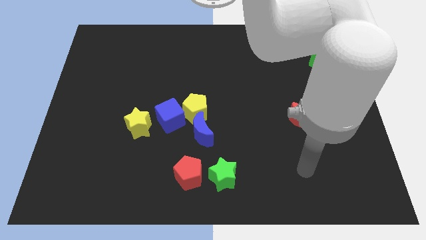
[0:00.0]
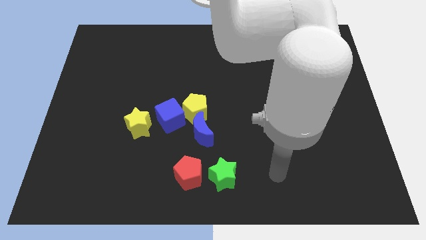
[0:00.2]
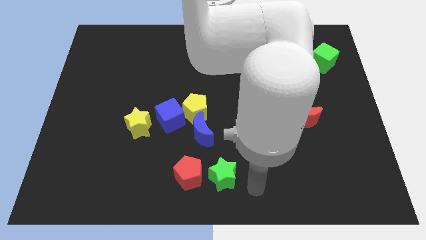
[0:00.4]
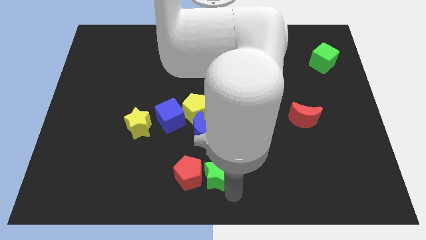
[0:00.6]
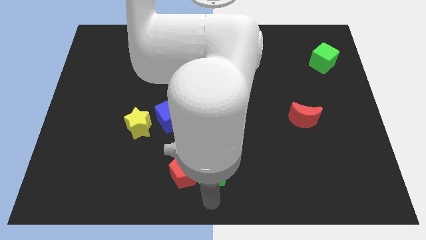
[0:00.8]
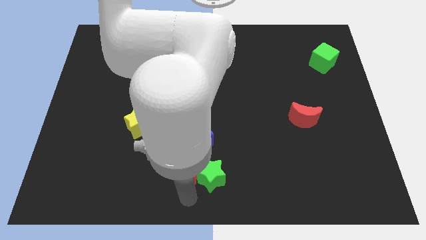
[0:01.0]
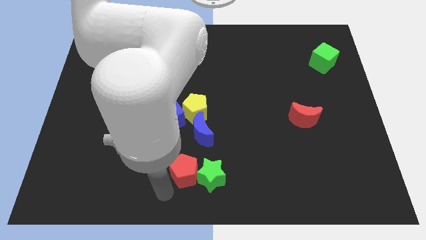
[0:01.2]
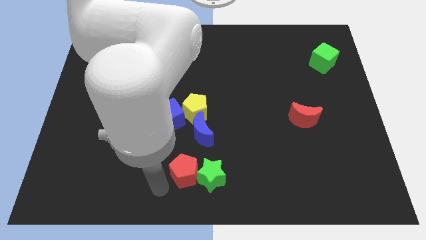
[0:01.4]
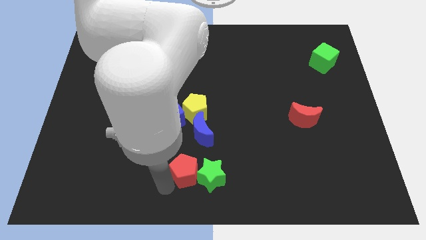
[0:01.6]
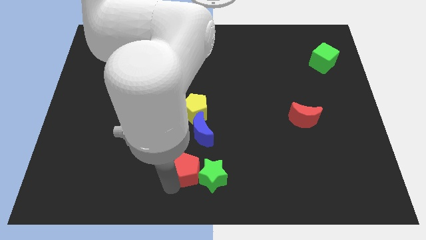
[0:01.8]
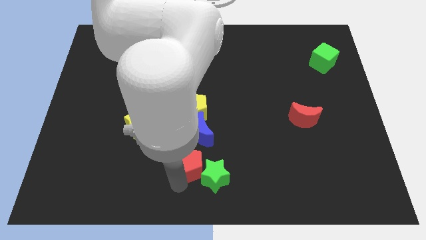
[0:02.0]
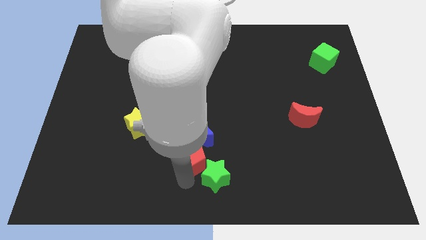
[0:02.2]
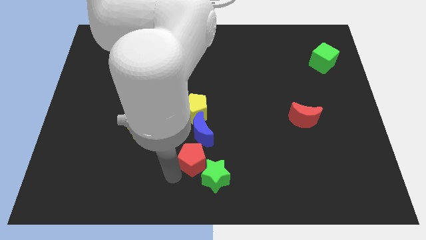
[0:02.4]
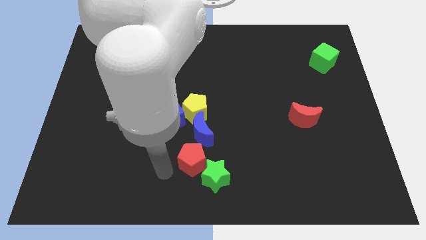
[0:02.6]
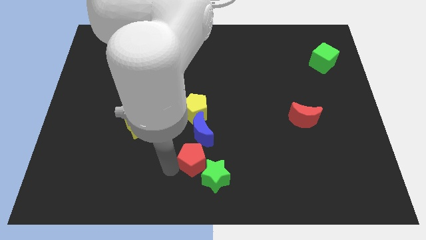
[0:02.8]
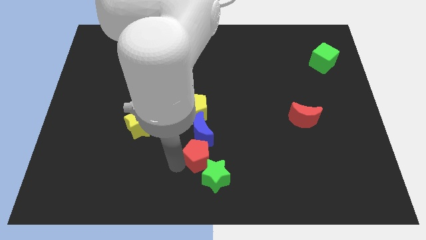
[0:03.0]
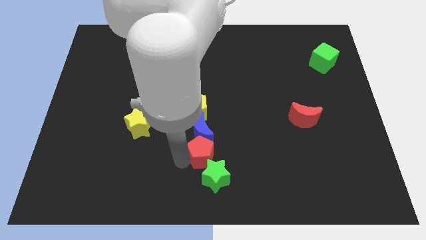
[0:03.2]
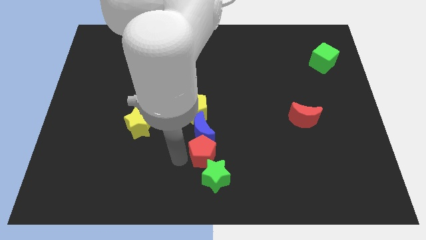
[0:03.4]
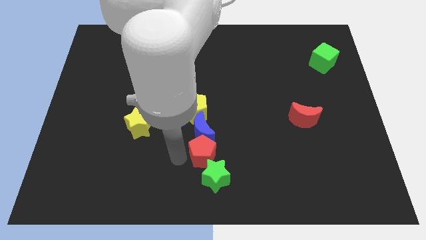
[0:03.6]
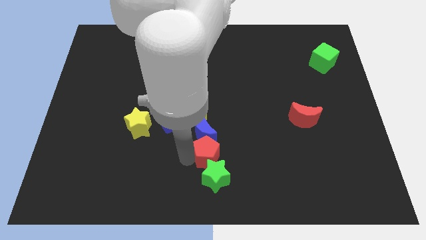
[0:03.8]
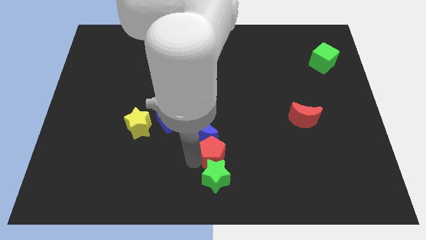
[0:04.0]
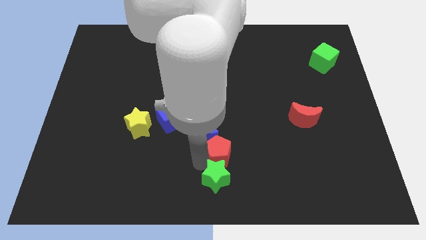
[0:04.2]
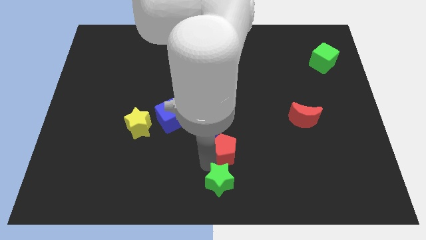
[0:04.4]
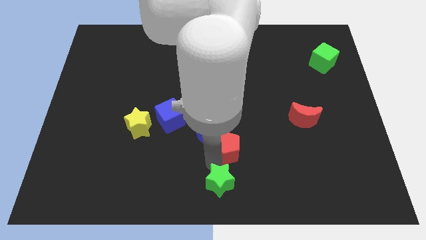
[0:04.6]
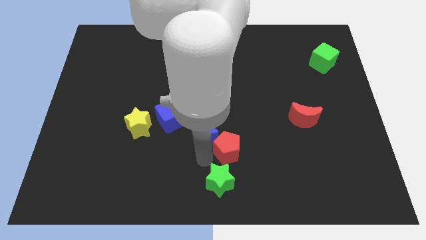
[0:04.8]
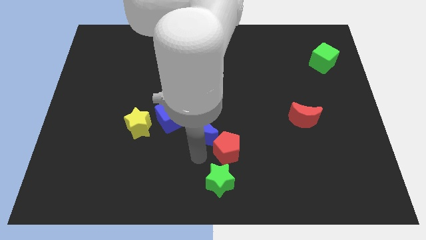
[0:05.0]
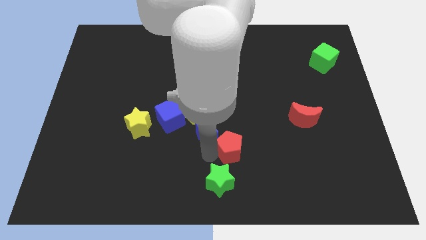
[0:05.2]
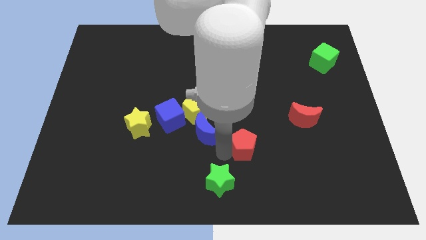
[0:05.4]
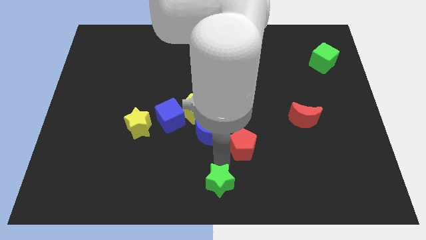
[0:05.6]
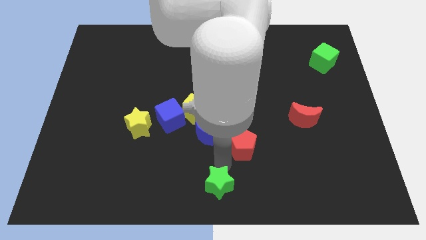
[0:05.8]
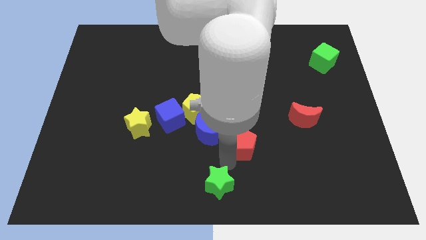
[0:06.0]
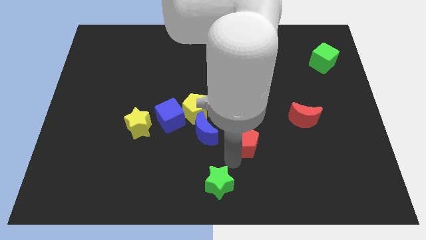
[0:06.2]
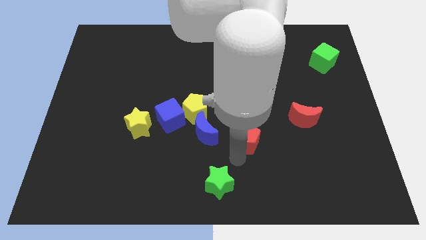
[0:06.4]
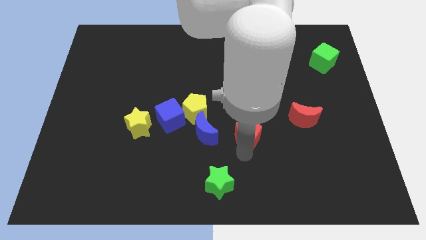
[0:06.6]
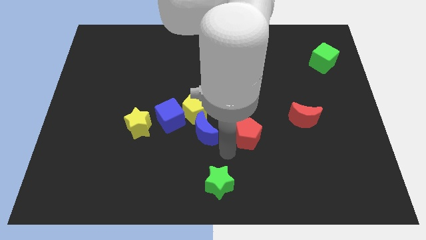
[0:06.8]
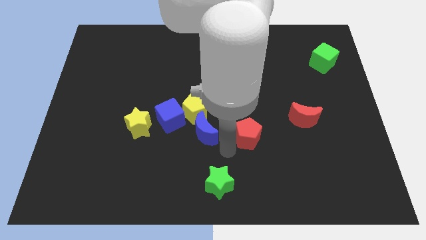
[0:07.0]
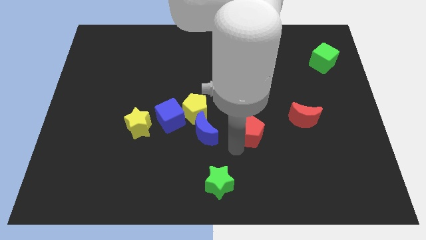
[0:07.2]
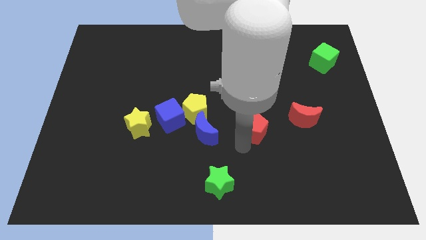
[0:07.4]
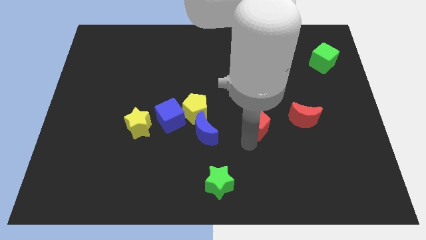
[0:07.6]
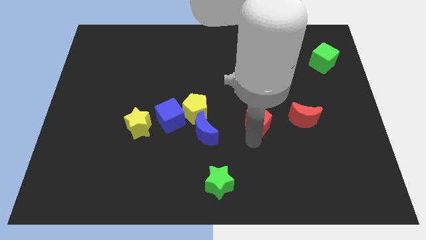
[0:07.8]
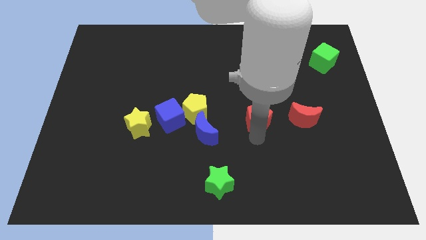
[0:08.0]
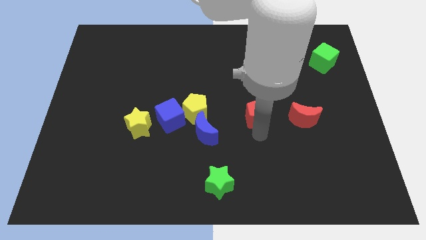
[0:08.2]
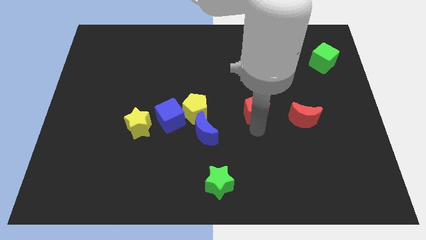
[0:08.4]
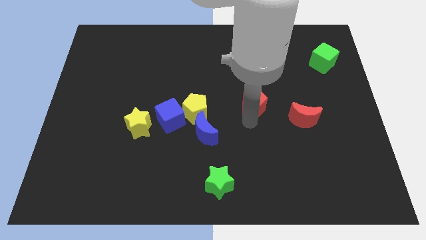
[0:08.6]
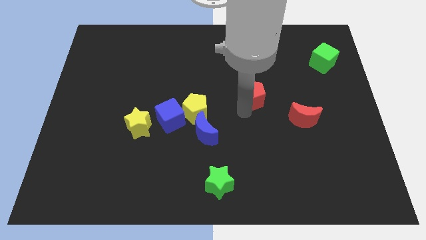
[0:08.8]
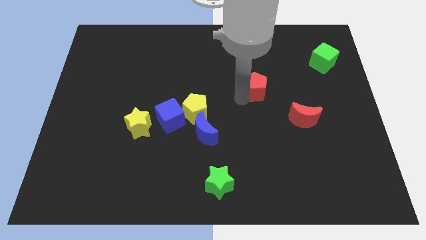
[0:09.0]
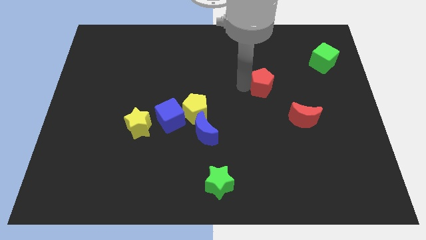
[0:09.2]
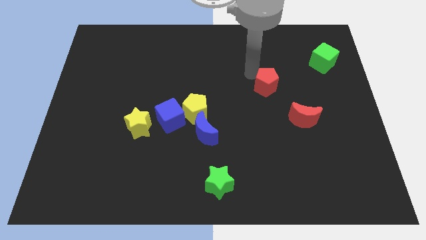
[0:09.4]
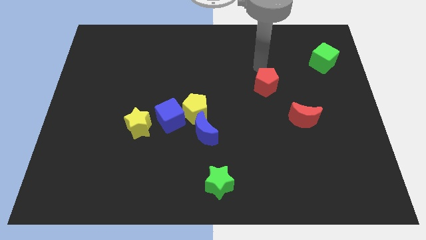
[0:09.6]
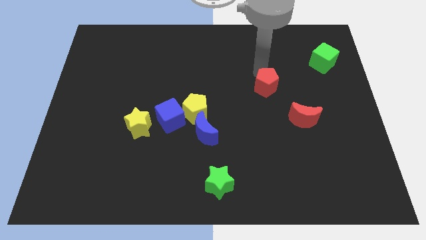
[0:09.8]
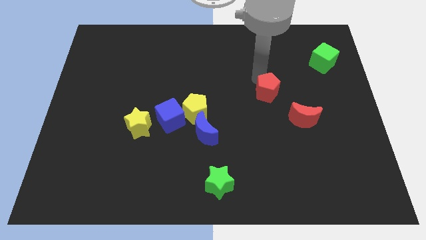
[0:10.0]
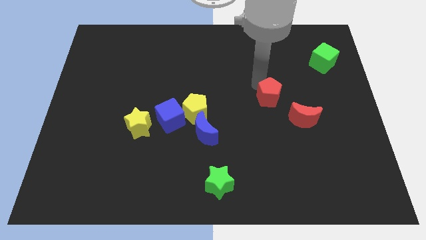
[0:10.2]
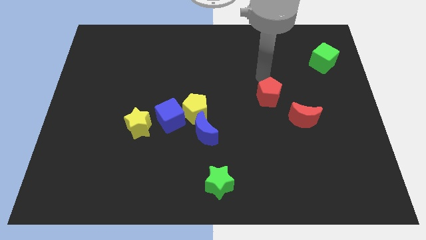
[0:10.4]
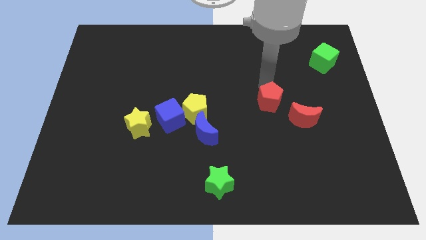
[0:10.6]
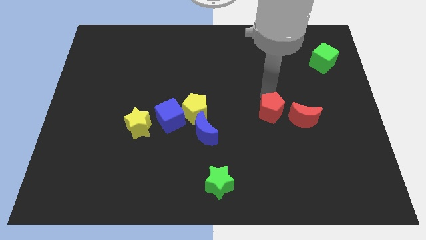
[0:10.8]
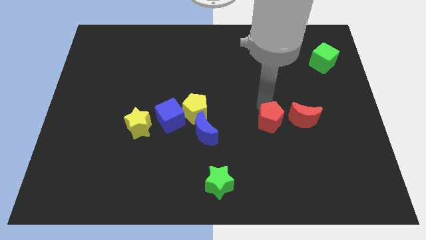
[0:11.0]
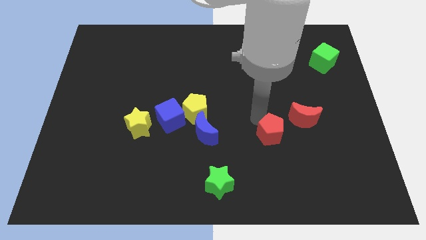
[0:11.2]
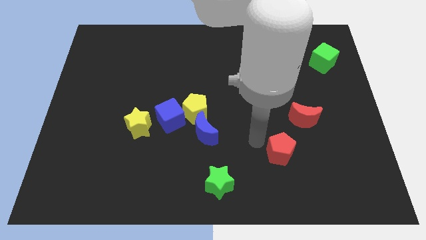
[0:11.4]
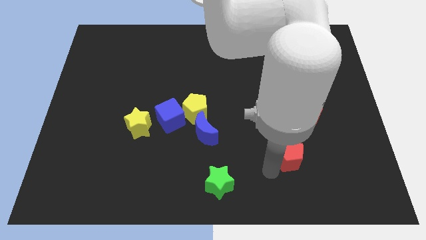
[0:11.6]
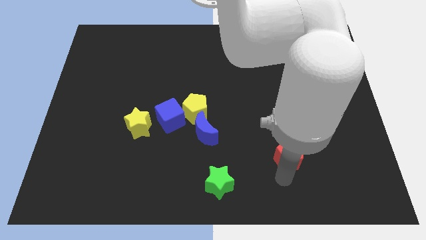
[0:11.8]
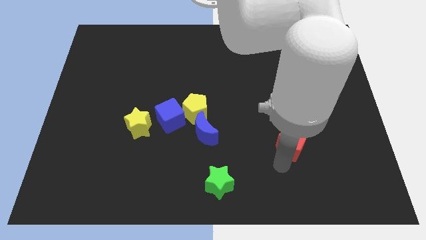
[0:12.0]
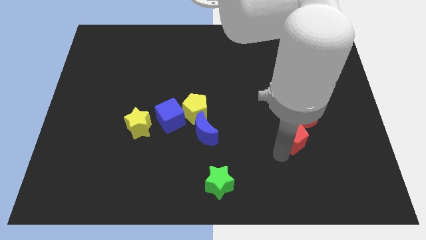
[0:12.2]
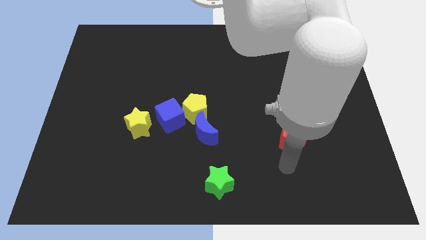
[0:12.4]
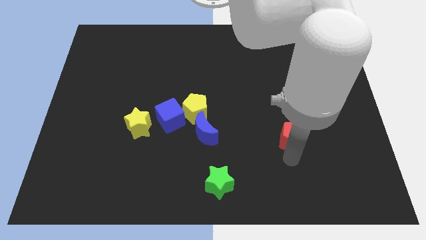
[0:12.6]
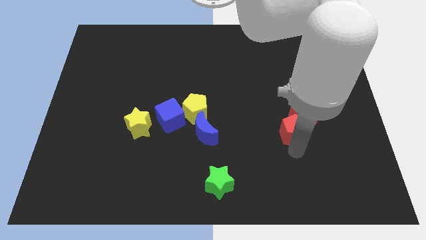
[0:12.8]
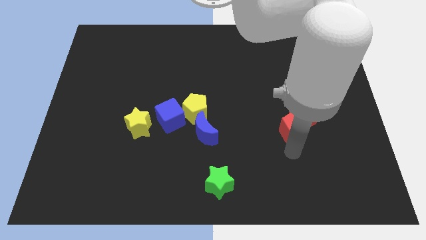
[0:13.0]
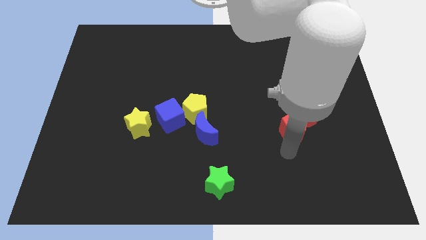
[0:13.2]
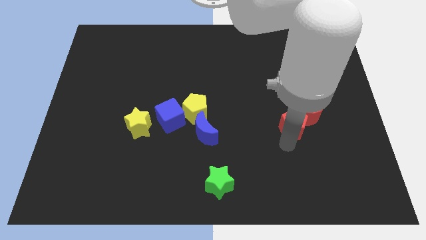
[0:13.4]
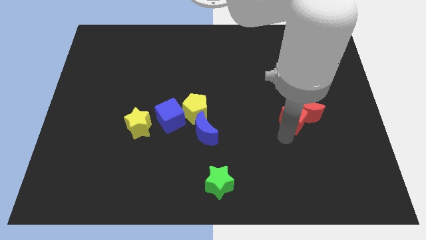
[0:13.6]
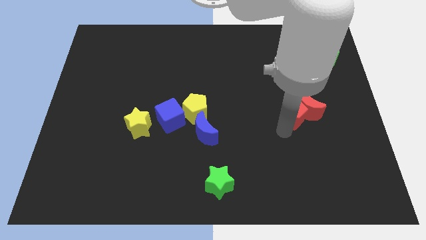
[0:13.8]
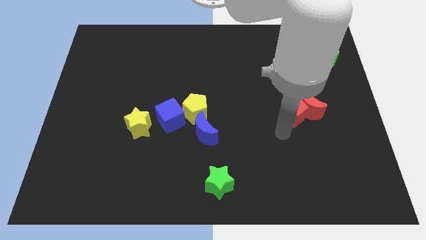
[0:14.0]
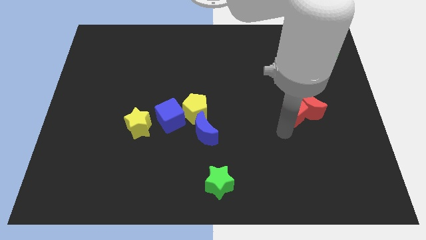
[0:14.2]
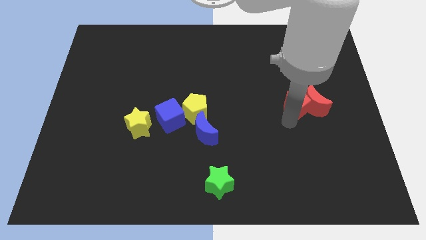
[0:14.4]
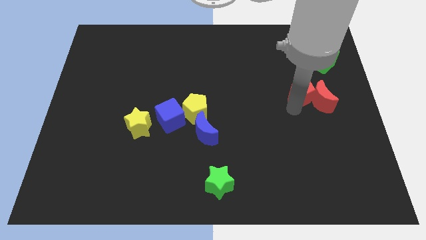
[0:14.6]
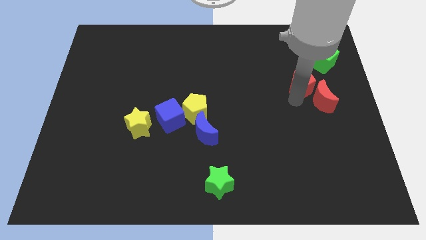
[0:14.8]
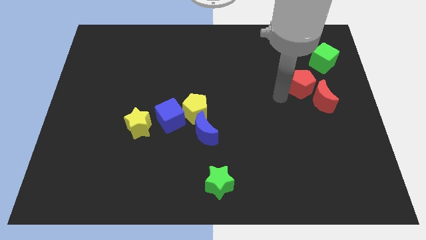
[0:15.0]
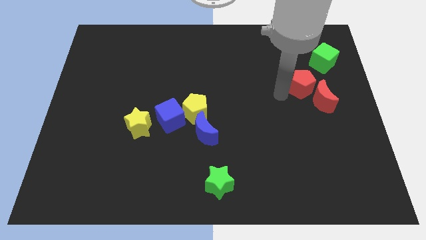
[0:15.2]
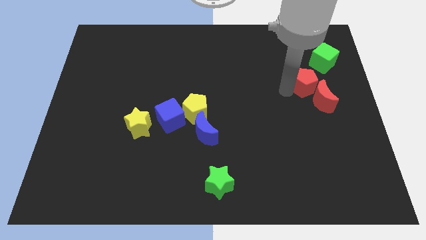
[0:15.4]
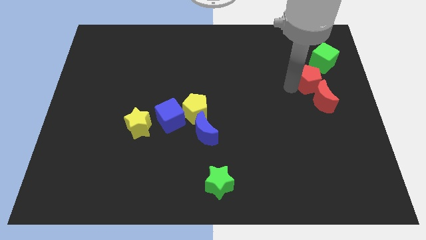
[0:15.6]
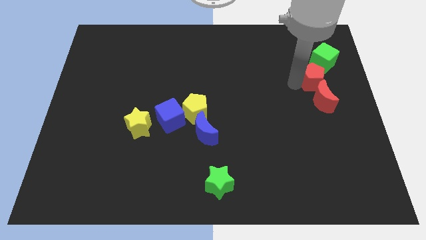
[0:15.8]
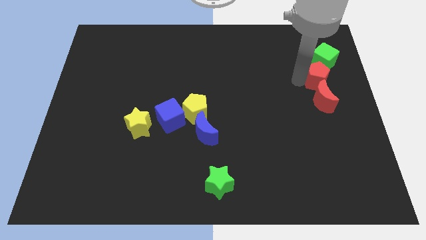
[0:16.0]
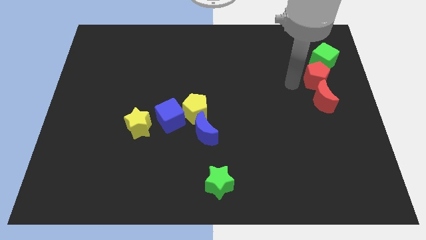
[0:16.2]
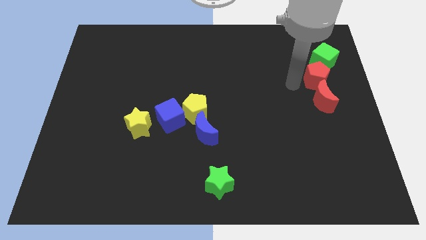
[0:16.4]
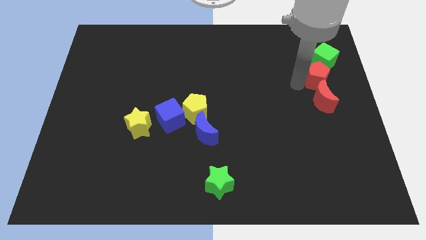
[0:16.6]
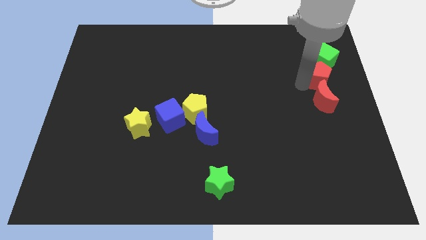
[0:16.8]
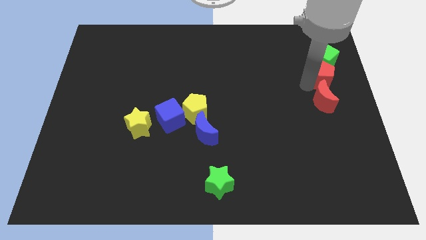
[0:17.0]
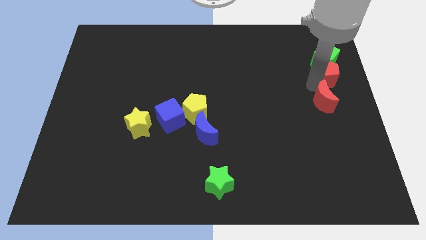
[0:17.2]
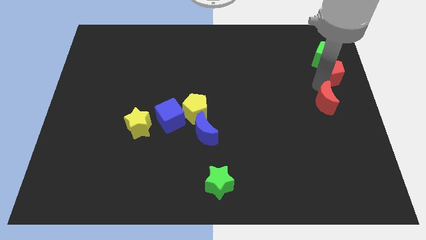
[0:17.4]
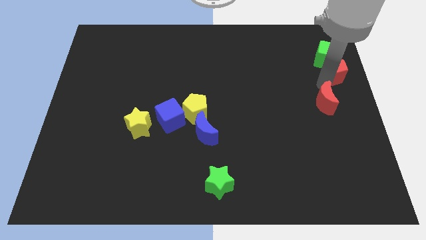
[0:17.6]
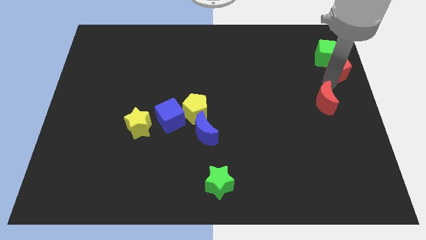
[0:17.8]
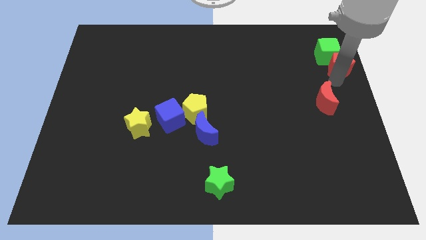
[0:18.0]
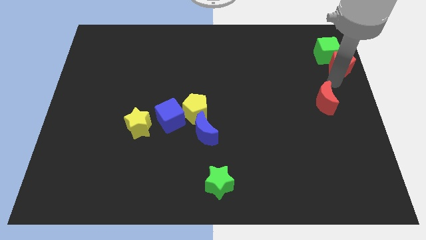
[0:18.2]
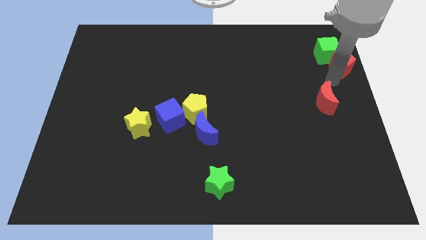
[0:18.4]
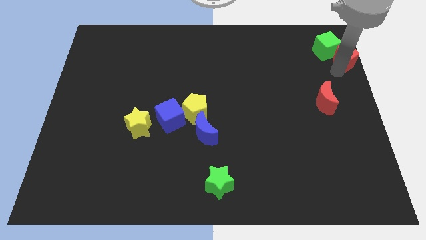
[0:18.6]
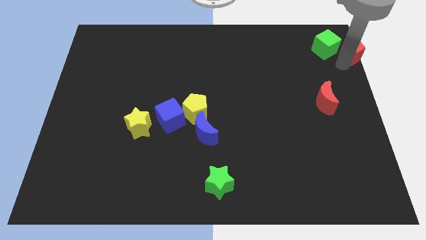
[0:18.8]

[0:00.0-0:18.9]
push the red pentagon to the top right corner
